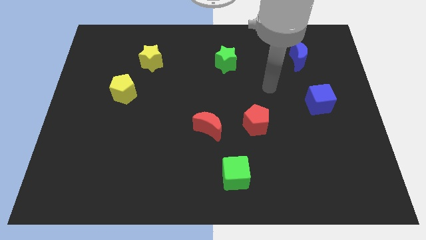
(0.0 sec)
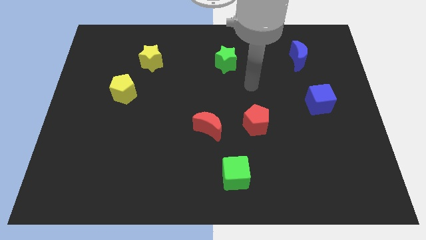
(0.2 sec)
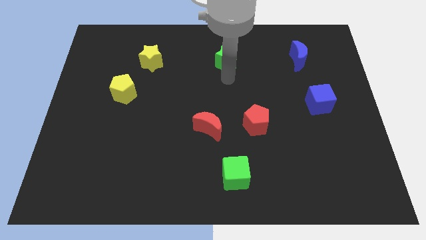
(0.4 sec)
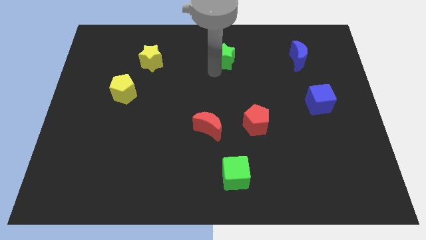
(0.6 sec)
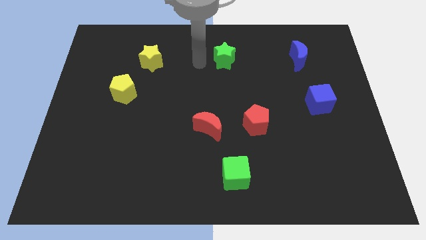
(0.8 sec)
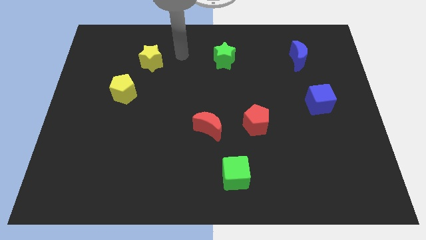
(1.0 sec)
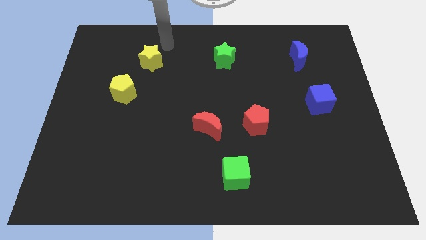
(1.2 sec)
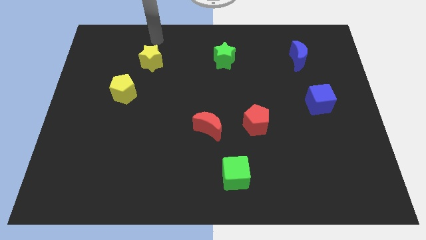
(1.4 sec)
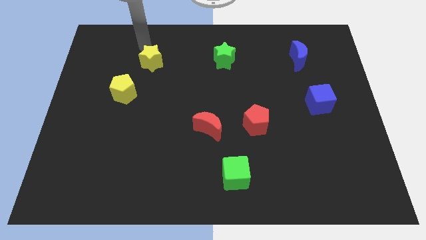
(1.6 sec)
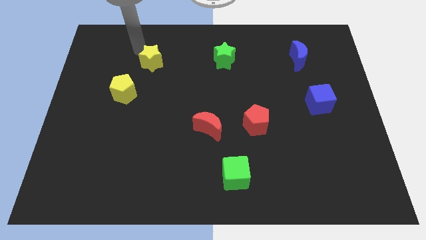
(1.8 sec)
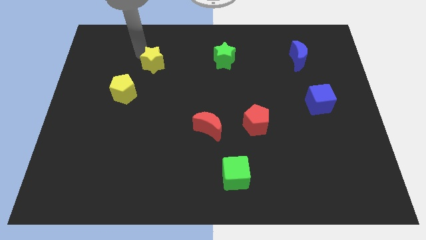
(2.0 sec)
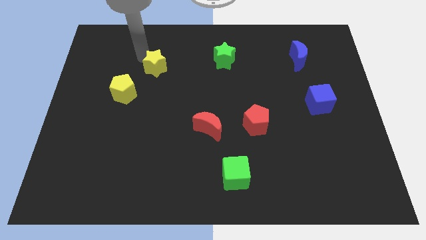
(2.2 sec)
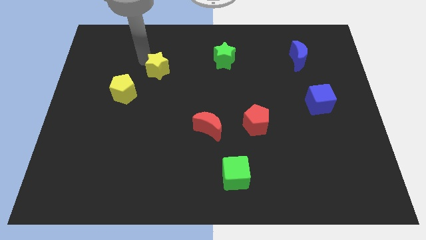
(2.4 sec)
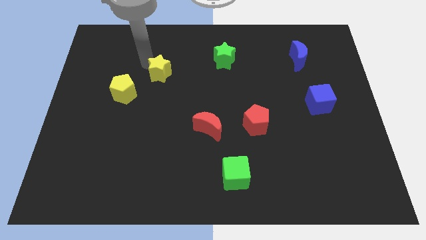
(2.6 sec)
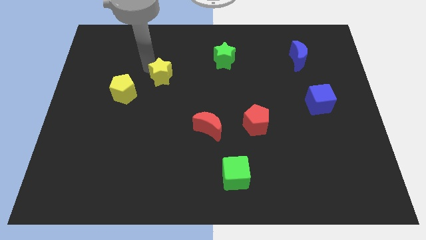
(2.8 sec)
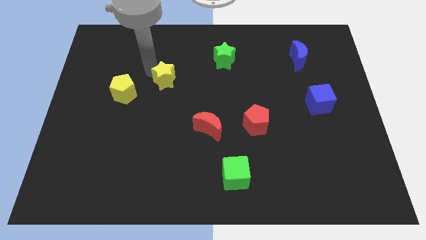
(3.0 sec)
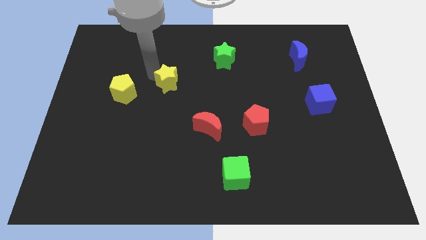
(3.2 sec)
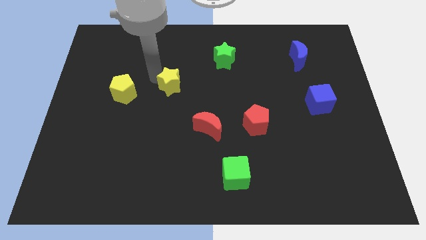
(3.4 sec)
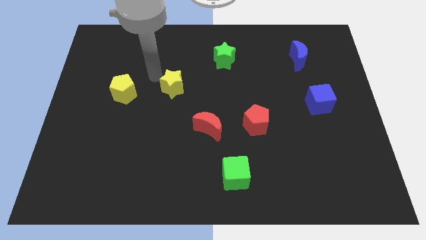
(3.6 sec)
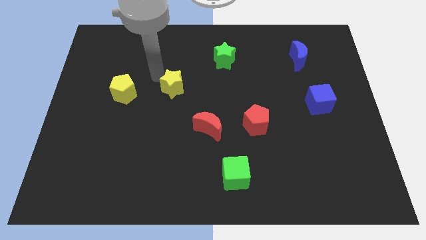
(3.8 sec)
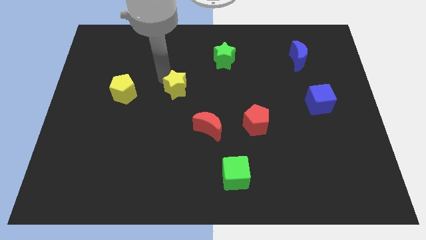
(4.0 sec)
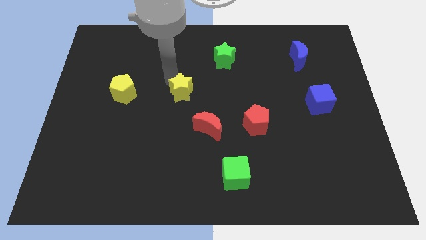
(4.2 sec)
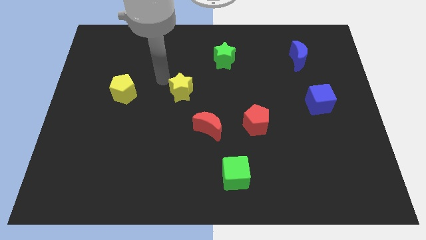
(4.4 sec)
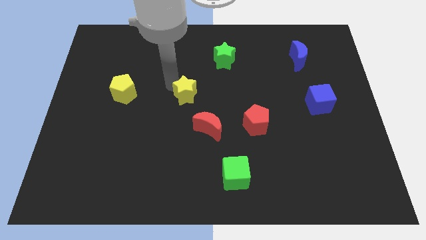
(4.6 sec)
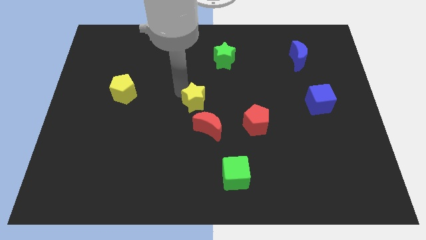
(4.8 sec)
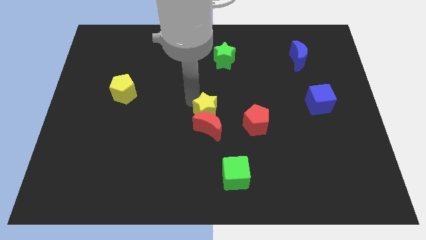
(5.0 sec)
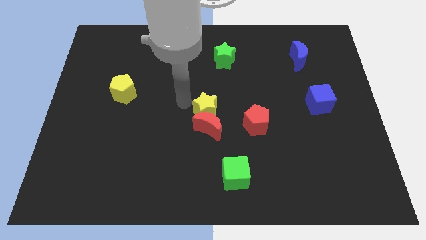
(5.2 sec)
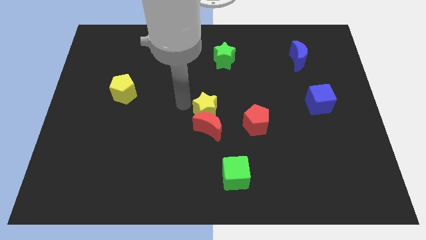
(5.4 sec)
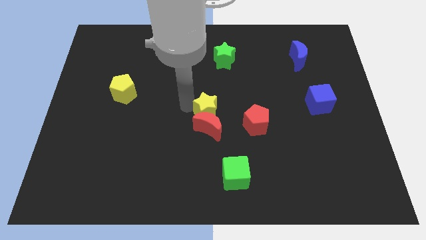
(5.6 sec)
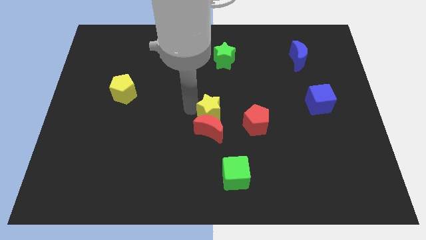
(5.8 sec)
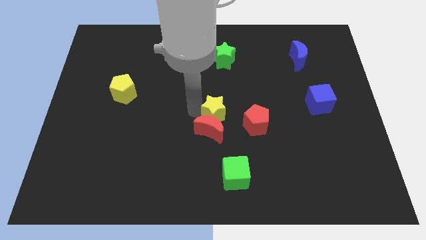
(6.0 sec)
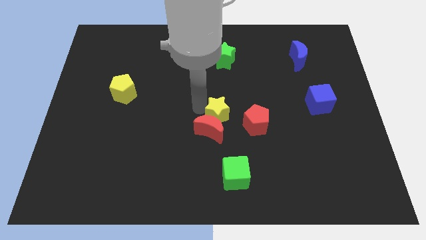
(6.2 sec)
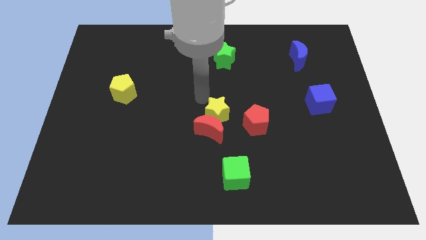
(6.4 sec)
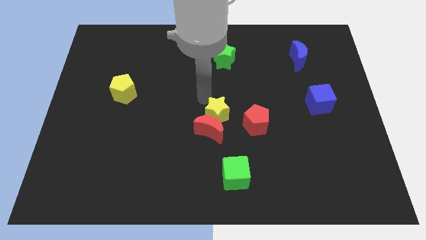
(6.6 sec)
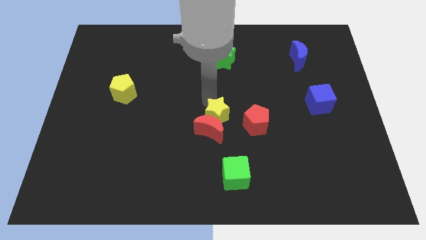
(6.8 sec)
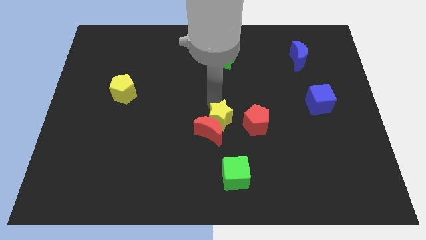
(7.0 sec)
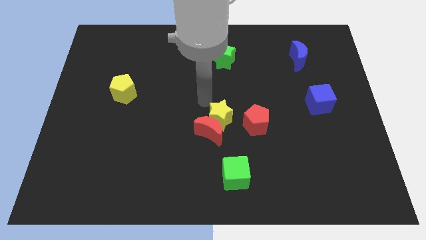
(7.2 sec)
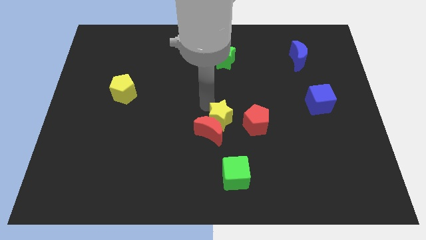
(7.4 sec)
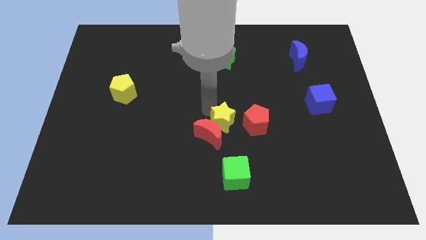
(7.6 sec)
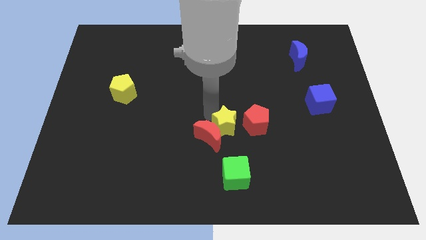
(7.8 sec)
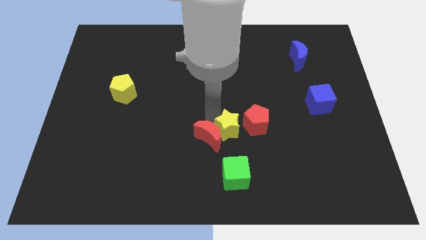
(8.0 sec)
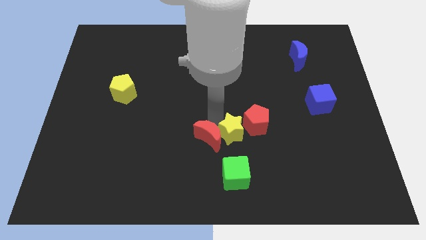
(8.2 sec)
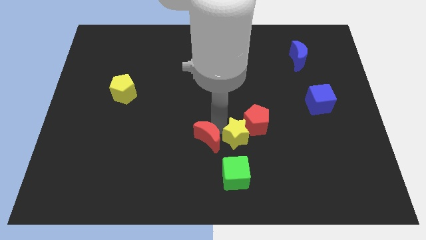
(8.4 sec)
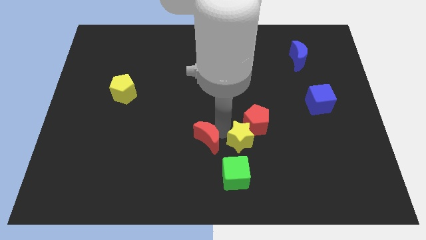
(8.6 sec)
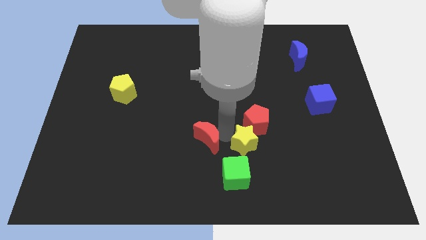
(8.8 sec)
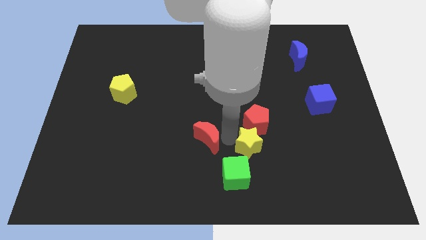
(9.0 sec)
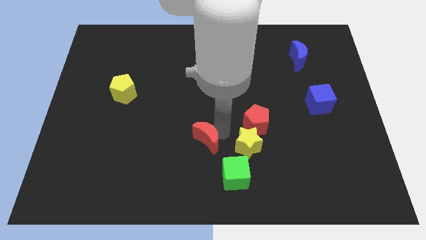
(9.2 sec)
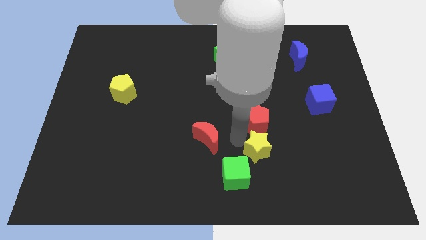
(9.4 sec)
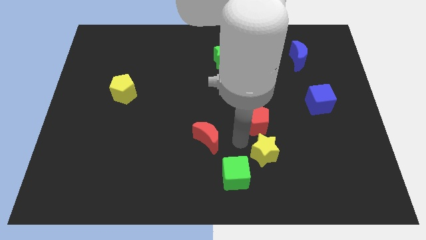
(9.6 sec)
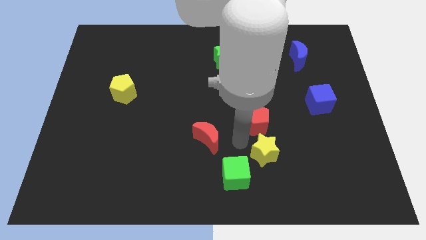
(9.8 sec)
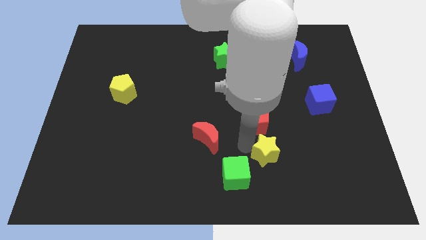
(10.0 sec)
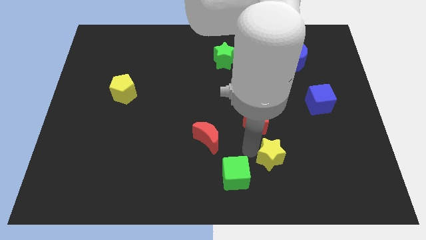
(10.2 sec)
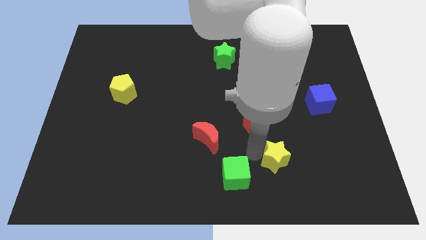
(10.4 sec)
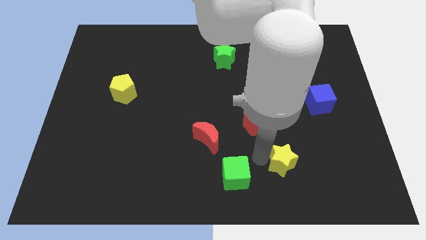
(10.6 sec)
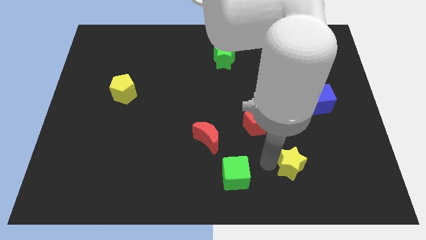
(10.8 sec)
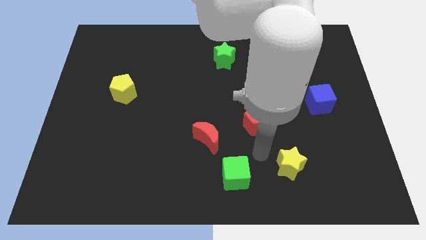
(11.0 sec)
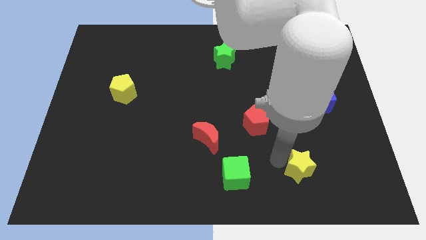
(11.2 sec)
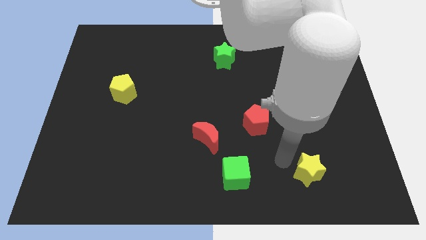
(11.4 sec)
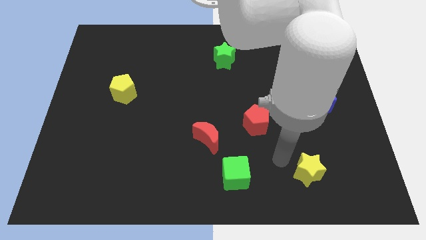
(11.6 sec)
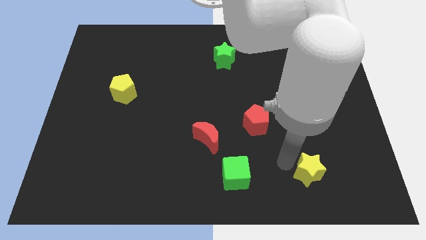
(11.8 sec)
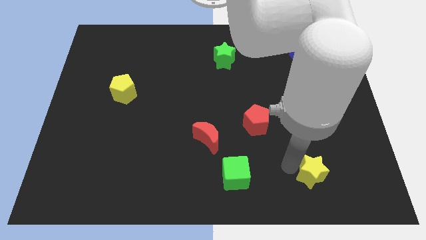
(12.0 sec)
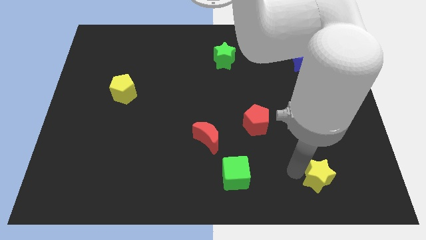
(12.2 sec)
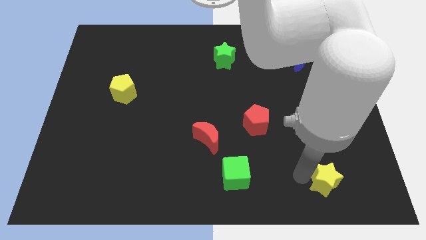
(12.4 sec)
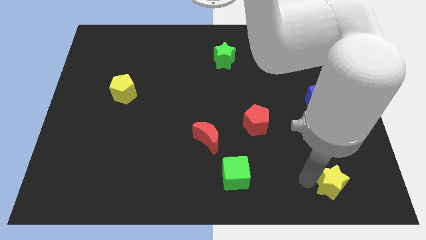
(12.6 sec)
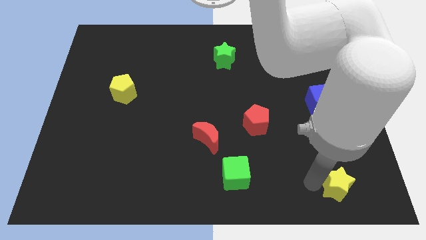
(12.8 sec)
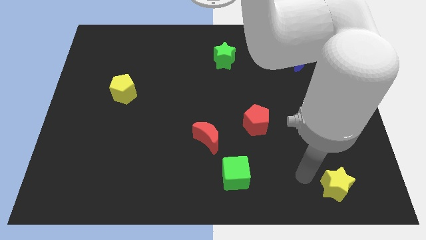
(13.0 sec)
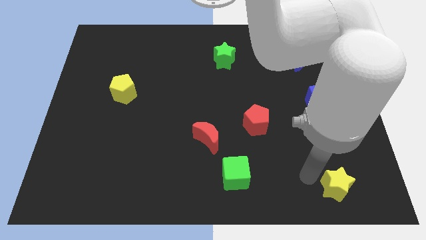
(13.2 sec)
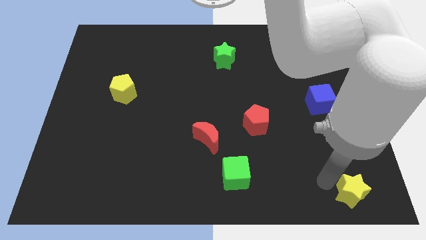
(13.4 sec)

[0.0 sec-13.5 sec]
push the yellow star to the bottom right corner
